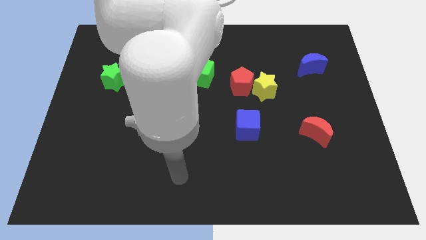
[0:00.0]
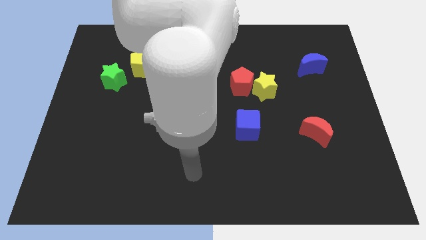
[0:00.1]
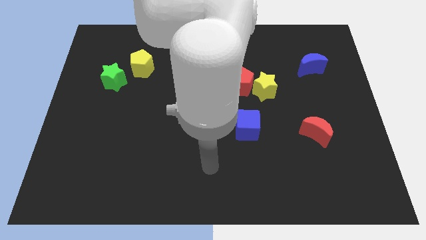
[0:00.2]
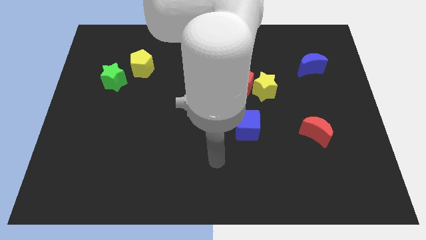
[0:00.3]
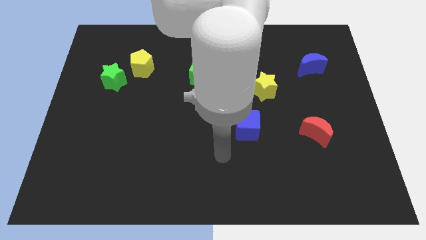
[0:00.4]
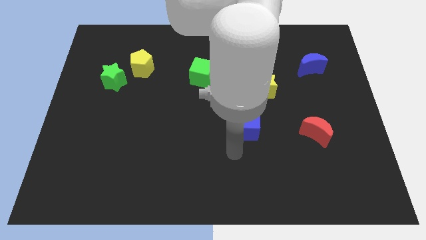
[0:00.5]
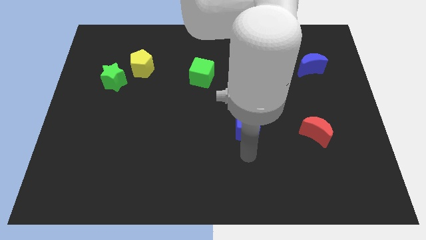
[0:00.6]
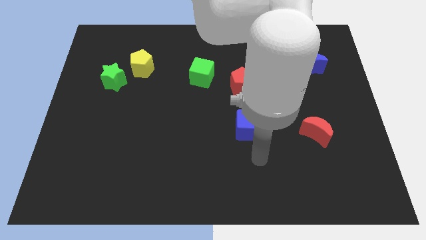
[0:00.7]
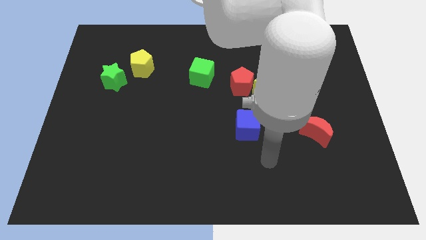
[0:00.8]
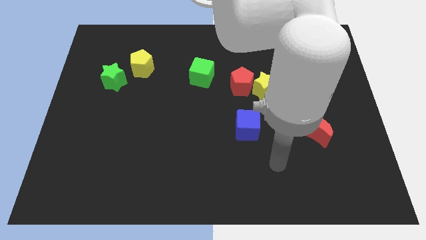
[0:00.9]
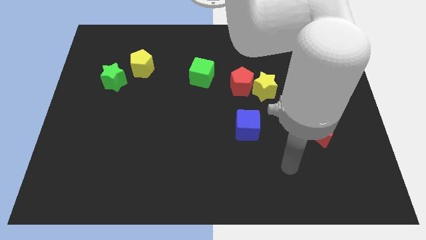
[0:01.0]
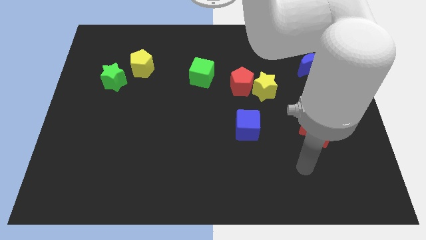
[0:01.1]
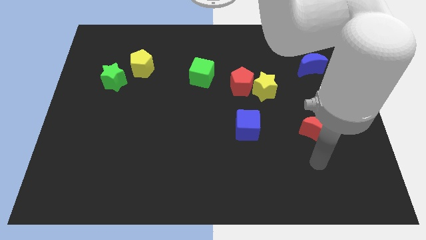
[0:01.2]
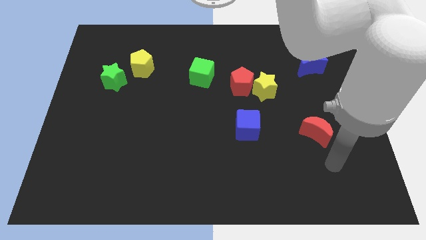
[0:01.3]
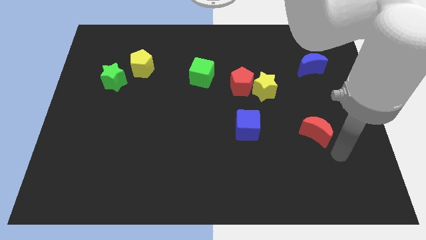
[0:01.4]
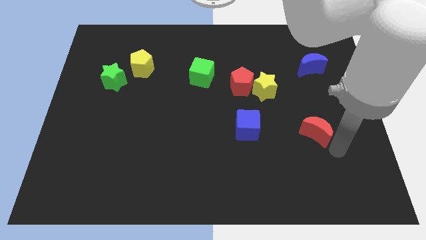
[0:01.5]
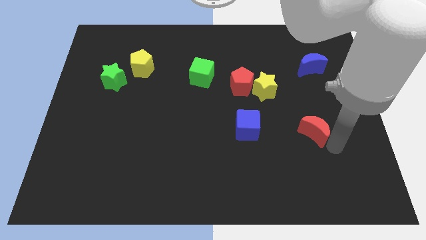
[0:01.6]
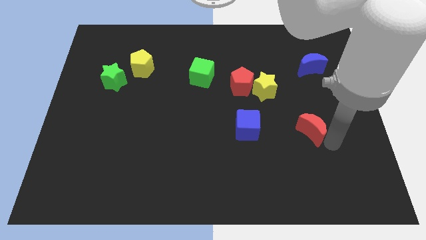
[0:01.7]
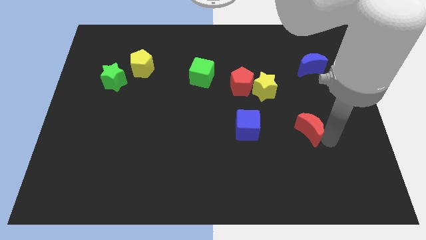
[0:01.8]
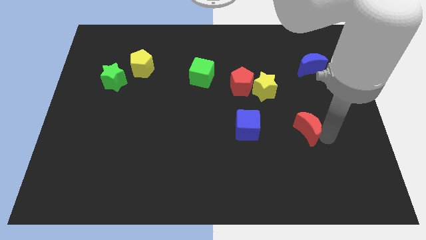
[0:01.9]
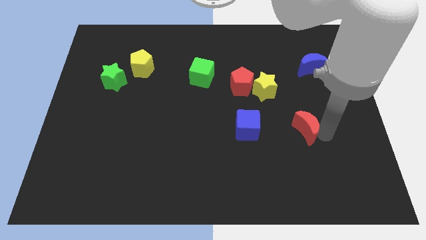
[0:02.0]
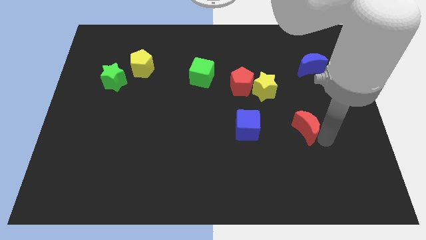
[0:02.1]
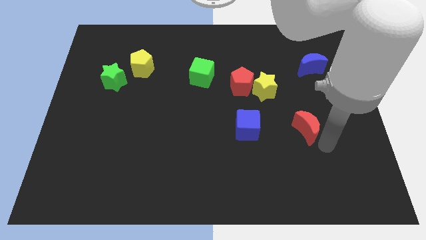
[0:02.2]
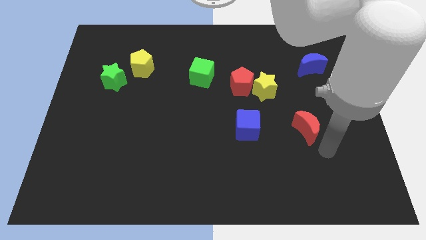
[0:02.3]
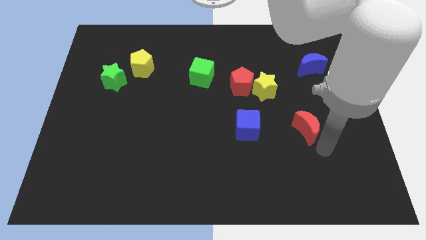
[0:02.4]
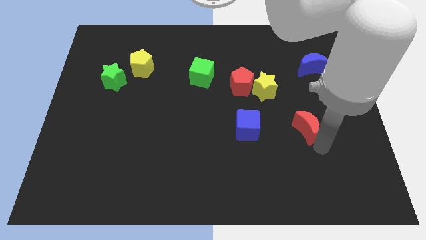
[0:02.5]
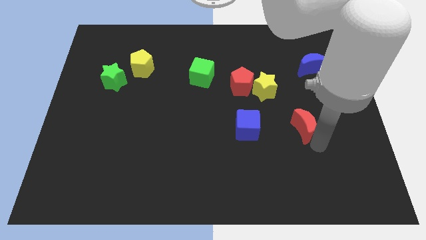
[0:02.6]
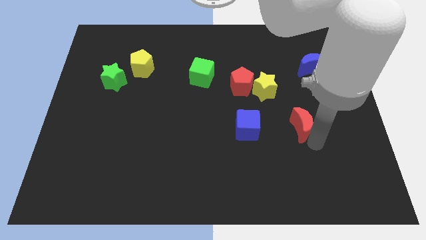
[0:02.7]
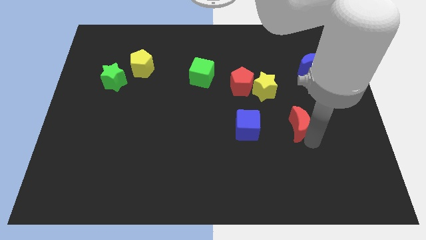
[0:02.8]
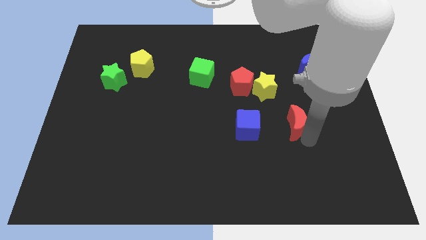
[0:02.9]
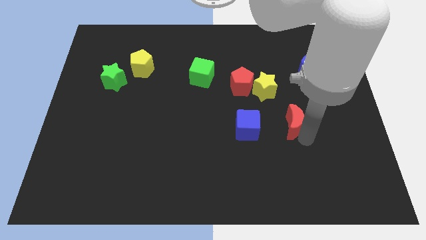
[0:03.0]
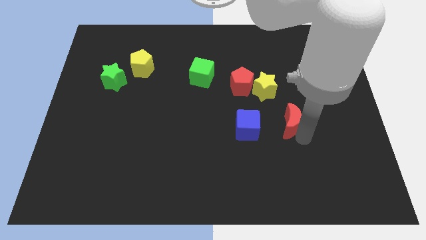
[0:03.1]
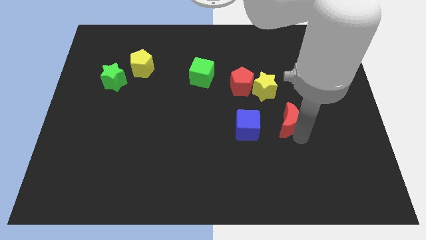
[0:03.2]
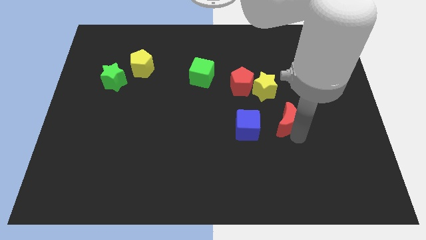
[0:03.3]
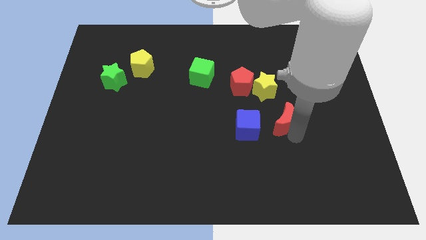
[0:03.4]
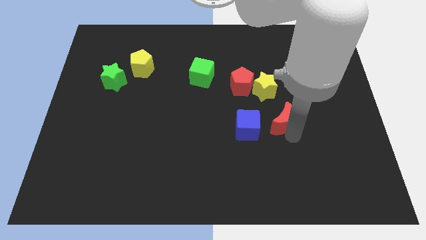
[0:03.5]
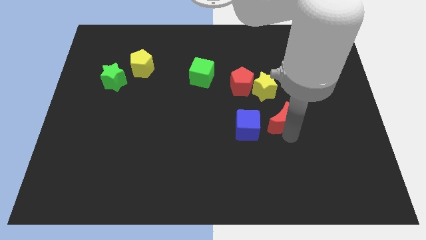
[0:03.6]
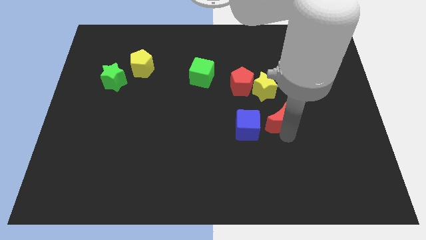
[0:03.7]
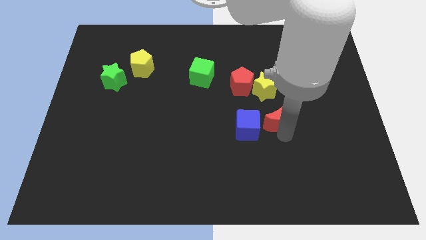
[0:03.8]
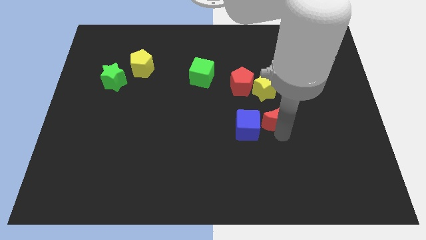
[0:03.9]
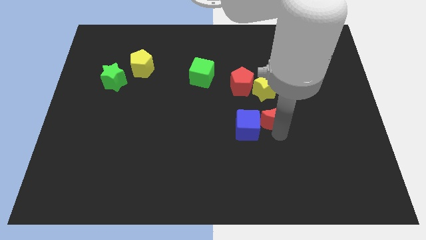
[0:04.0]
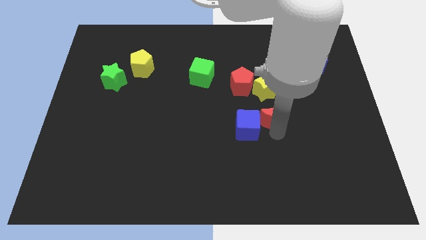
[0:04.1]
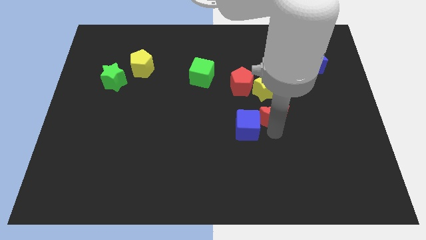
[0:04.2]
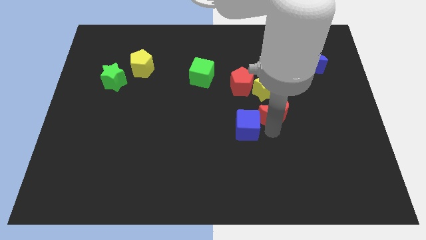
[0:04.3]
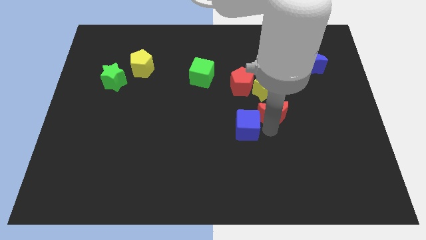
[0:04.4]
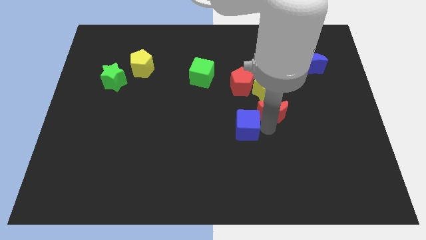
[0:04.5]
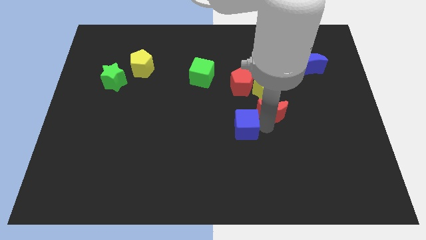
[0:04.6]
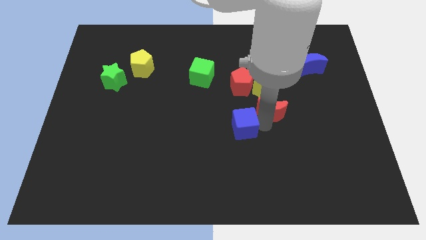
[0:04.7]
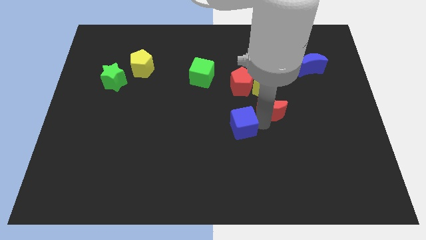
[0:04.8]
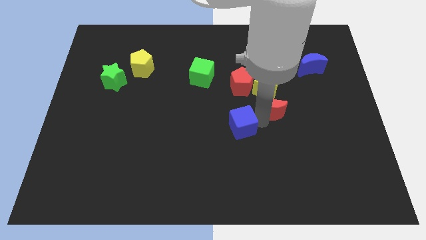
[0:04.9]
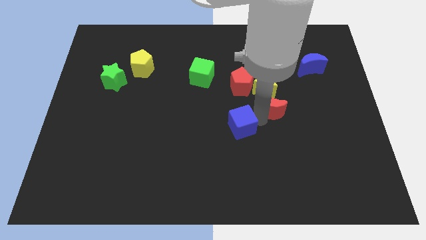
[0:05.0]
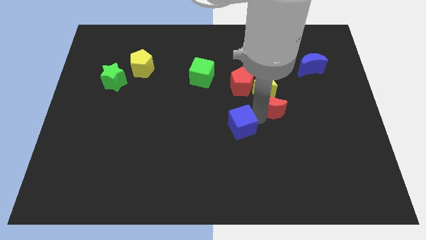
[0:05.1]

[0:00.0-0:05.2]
slide the red moon next to the yellow star

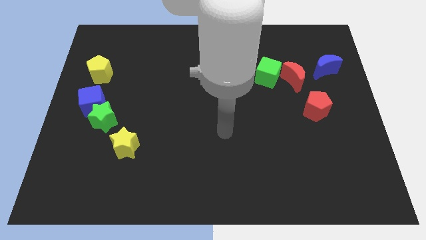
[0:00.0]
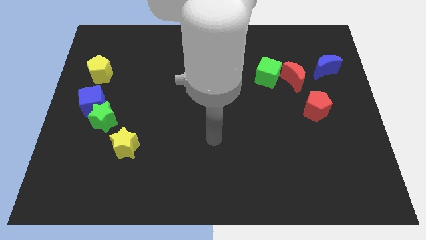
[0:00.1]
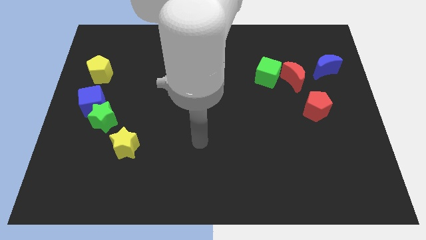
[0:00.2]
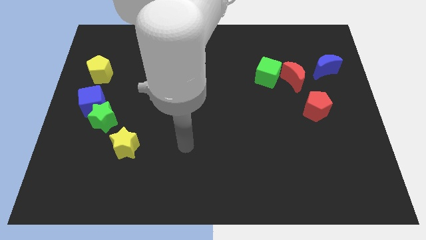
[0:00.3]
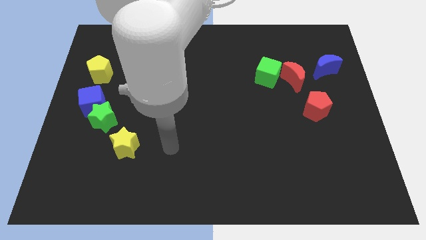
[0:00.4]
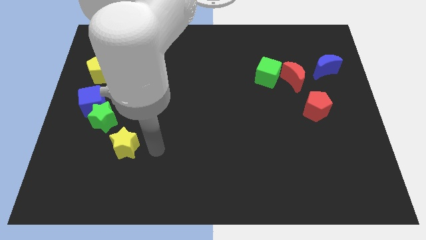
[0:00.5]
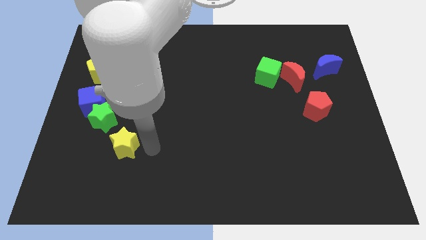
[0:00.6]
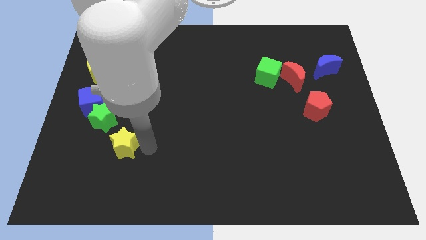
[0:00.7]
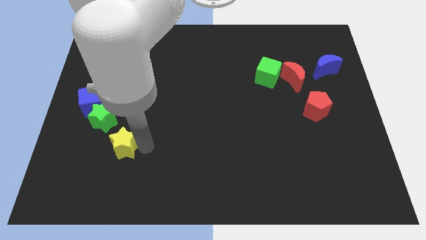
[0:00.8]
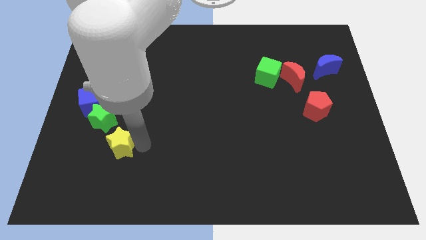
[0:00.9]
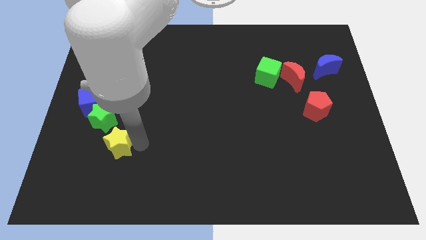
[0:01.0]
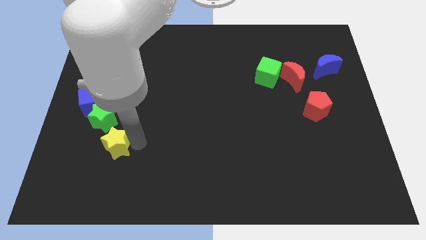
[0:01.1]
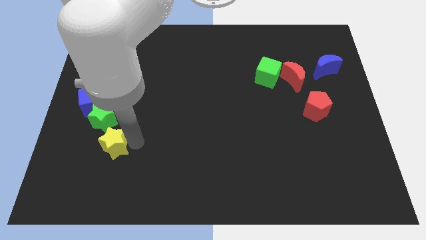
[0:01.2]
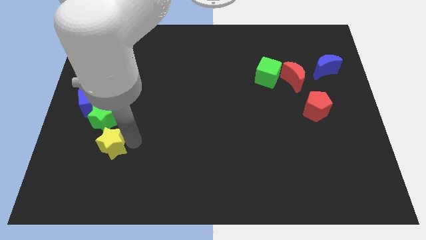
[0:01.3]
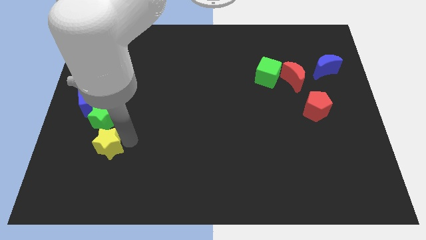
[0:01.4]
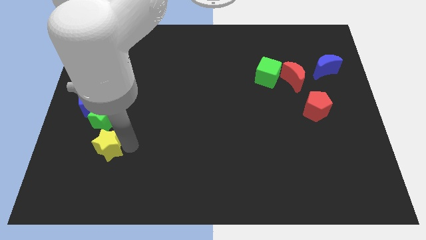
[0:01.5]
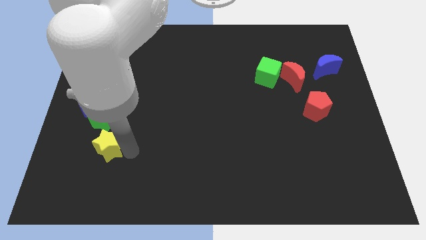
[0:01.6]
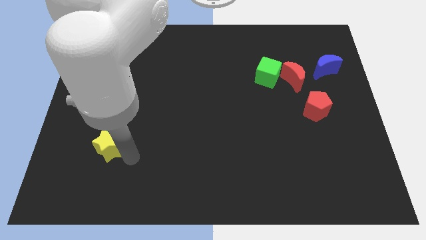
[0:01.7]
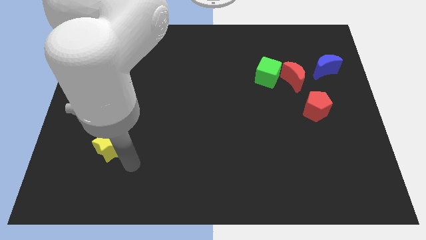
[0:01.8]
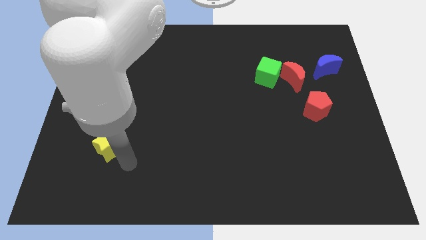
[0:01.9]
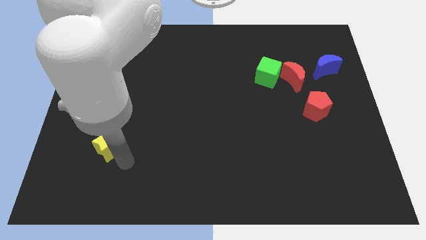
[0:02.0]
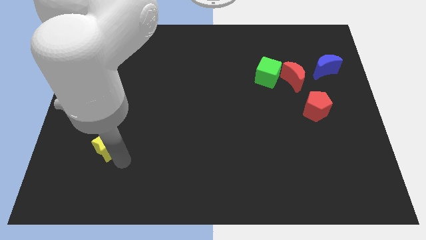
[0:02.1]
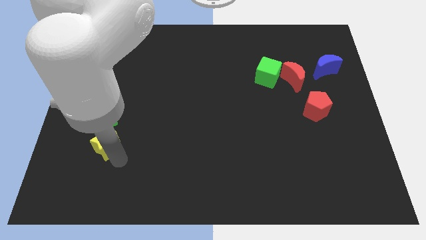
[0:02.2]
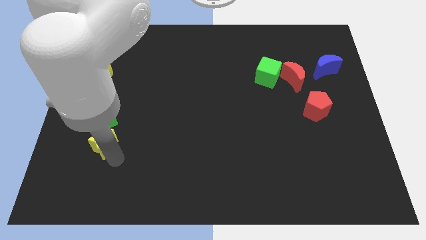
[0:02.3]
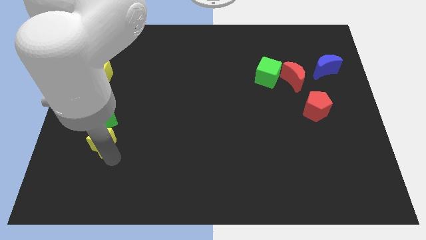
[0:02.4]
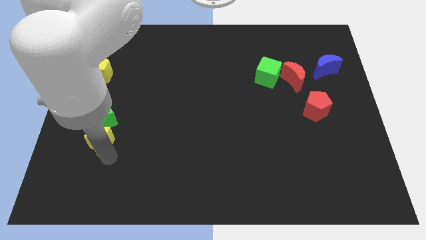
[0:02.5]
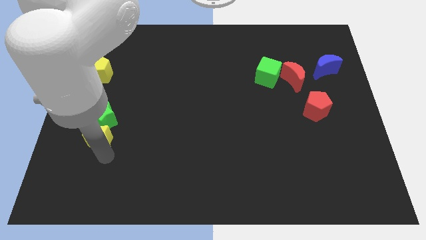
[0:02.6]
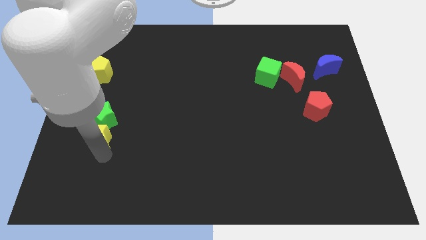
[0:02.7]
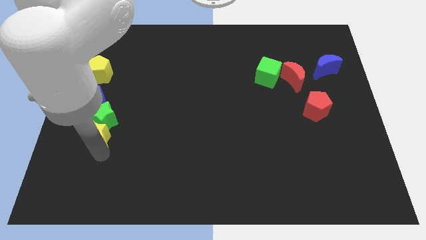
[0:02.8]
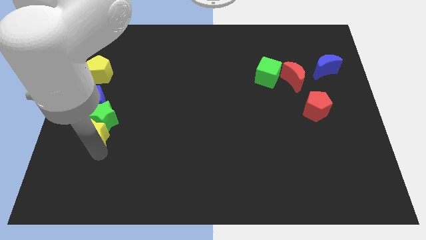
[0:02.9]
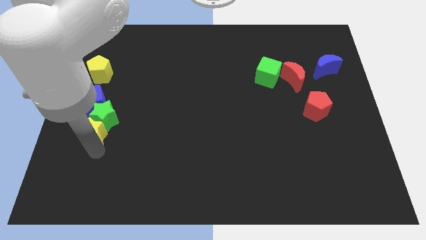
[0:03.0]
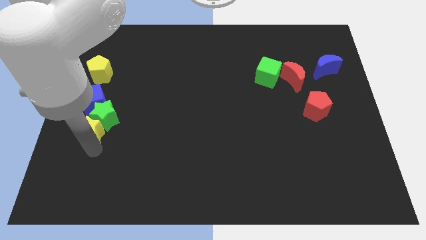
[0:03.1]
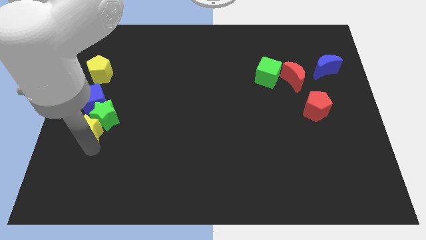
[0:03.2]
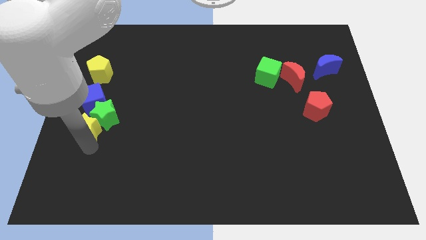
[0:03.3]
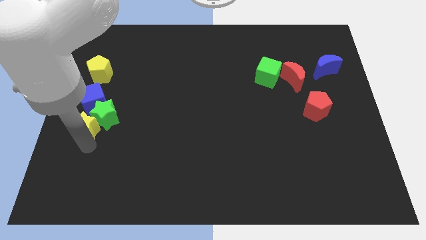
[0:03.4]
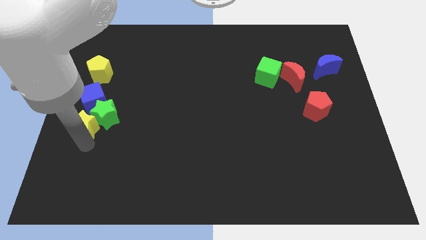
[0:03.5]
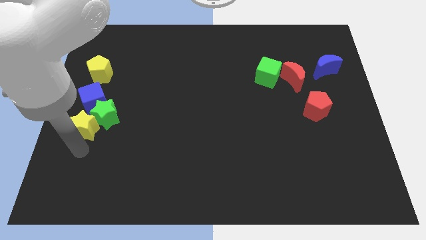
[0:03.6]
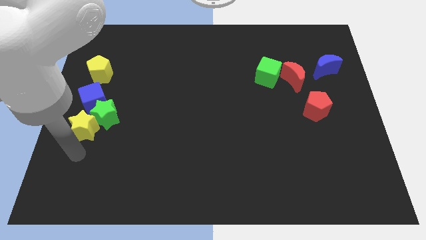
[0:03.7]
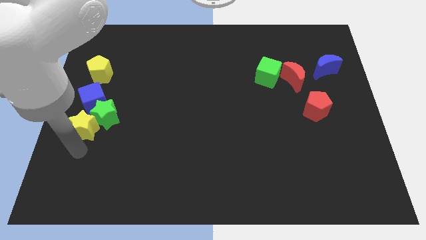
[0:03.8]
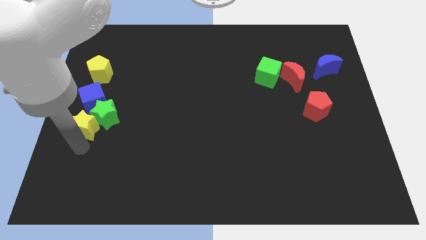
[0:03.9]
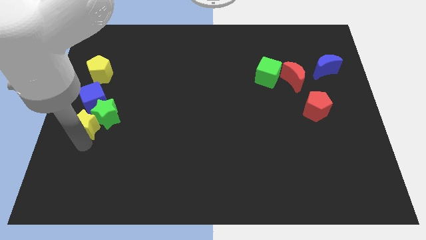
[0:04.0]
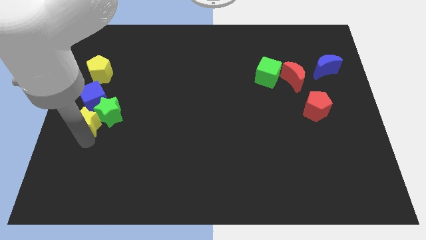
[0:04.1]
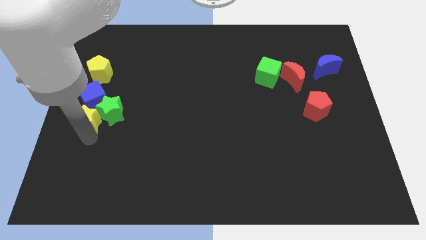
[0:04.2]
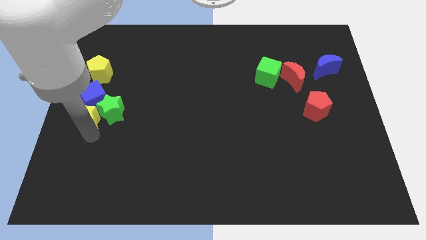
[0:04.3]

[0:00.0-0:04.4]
slide the yellow star towards the blue cube
